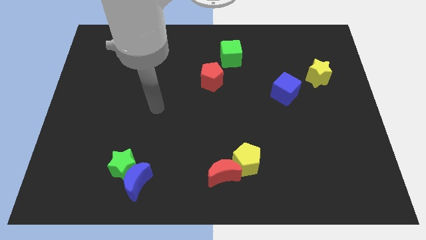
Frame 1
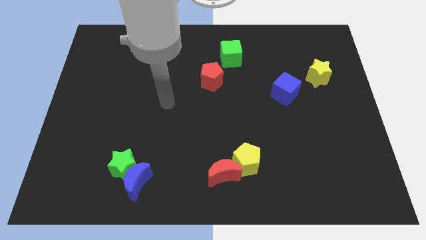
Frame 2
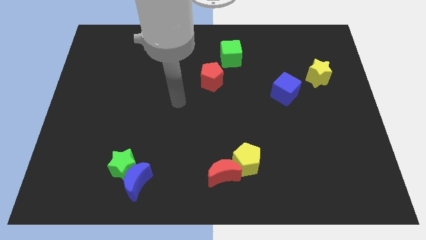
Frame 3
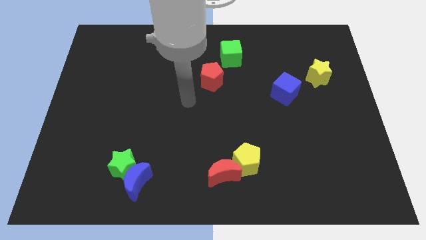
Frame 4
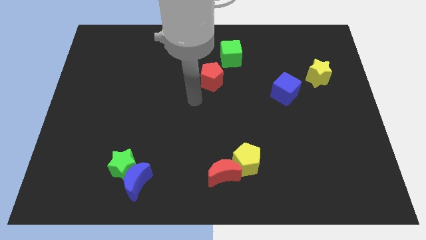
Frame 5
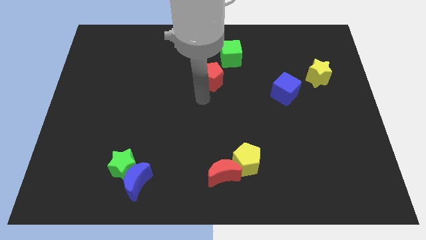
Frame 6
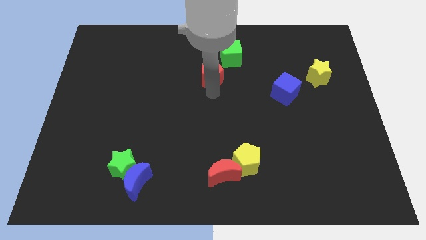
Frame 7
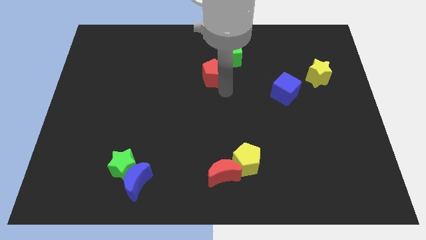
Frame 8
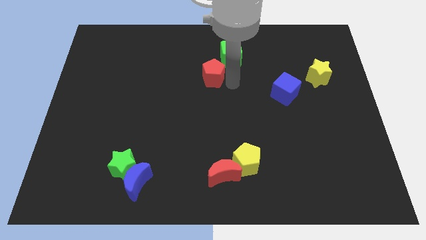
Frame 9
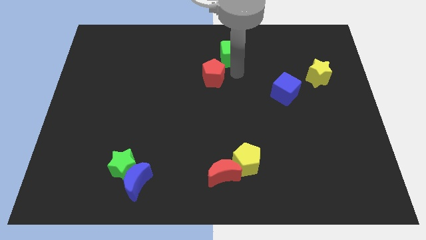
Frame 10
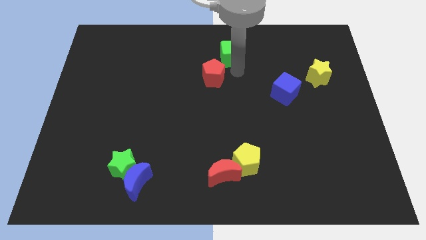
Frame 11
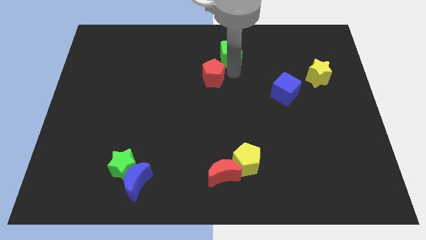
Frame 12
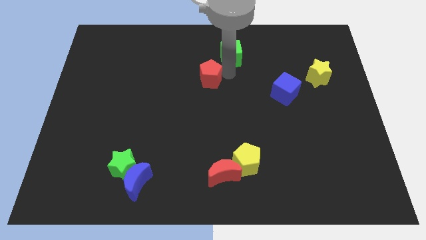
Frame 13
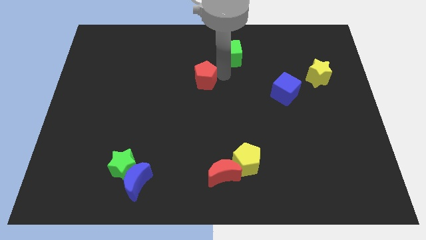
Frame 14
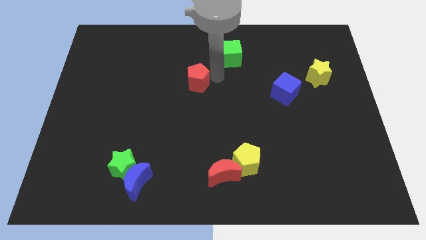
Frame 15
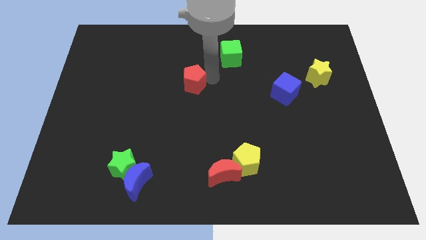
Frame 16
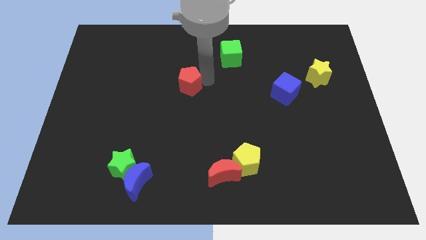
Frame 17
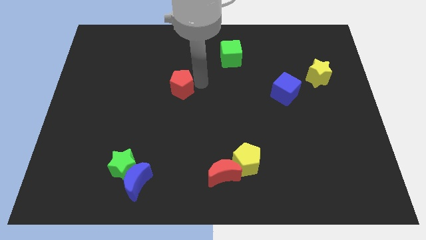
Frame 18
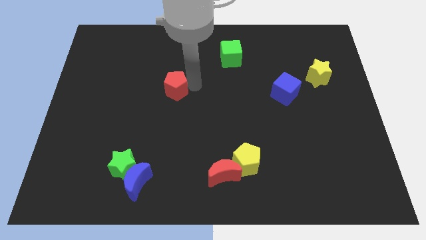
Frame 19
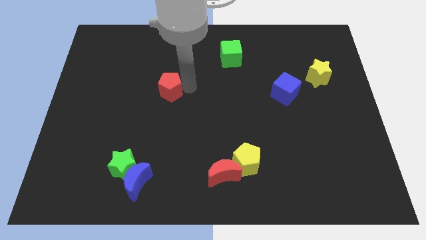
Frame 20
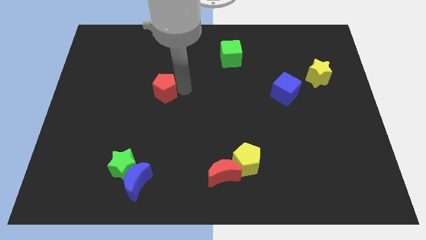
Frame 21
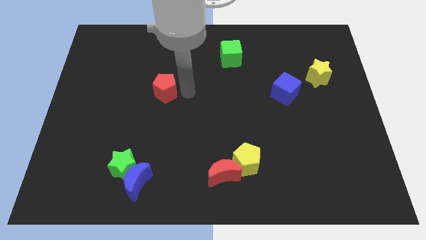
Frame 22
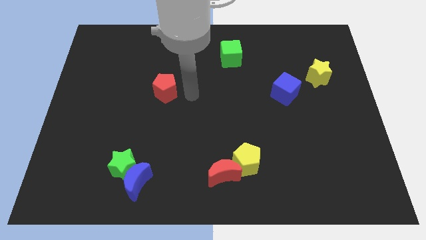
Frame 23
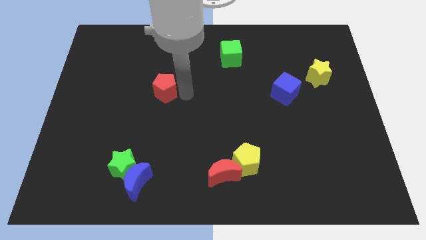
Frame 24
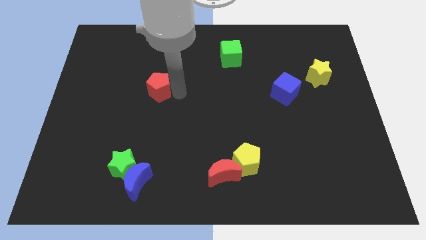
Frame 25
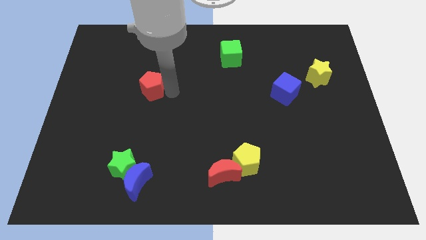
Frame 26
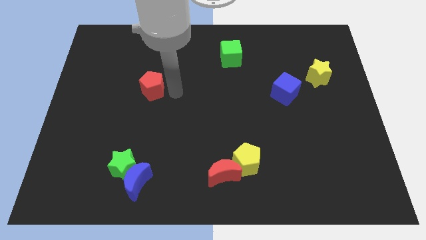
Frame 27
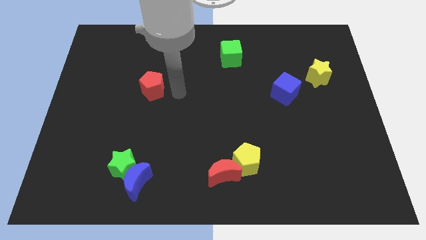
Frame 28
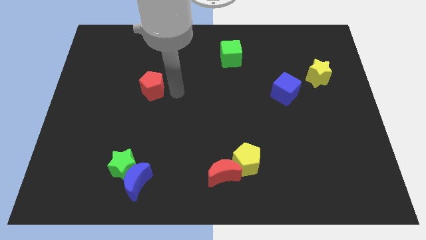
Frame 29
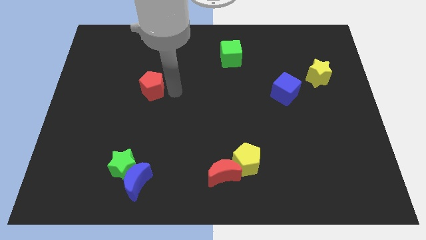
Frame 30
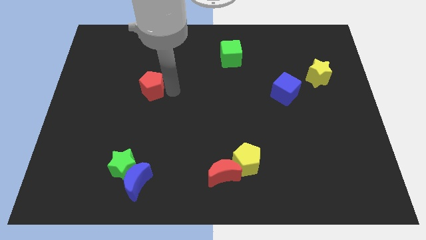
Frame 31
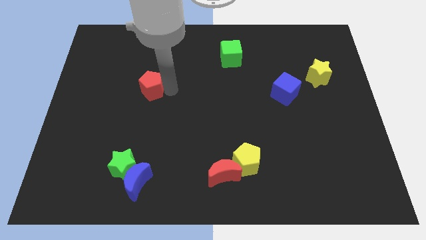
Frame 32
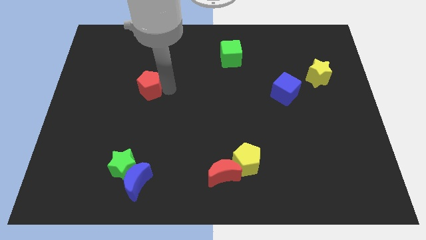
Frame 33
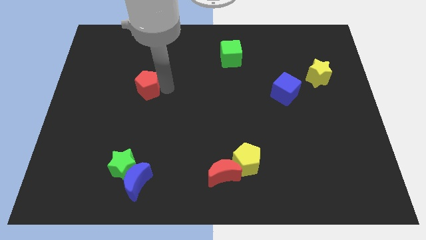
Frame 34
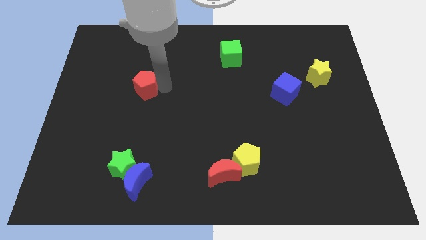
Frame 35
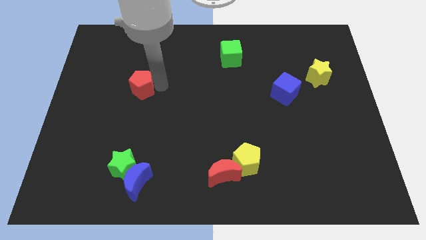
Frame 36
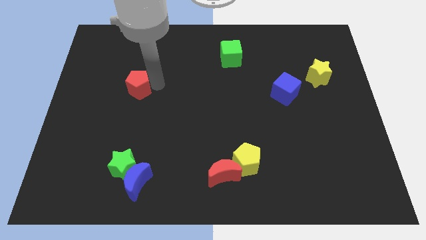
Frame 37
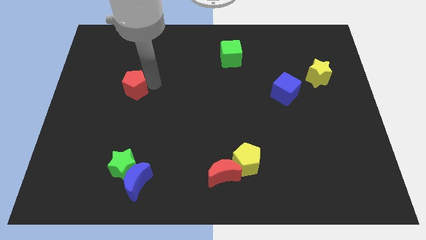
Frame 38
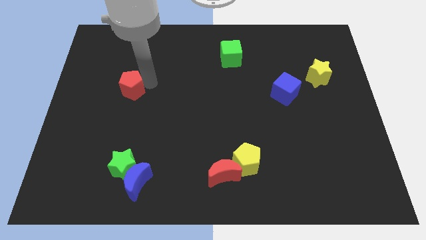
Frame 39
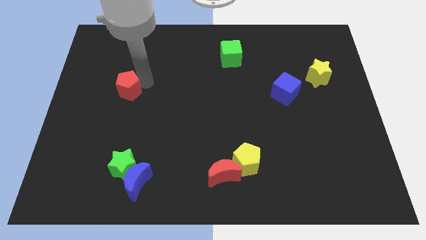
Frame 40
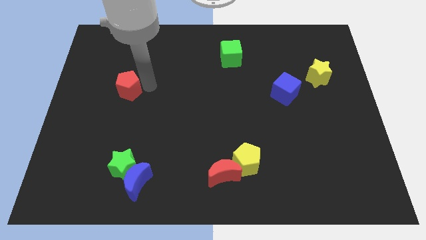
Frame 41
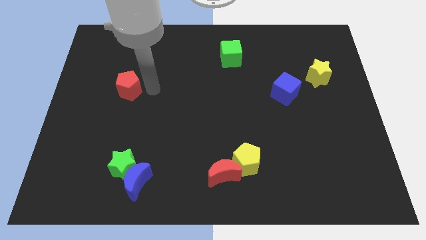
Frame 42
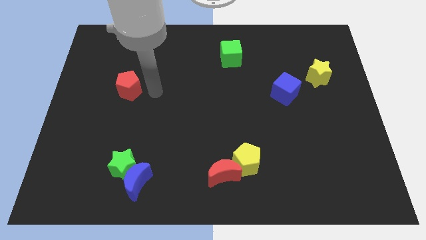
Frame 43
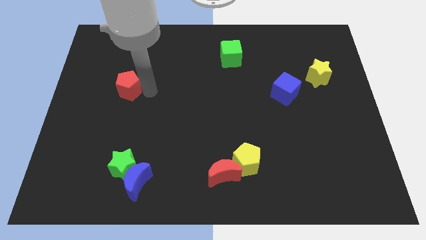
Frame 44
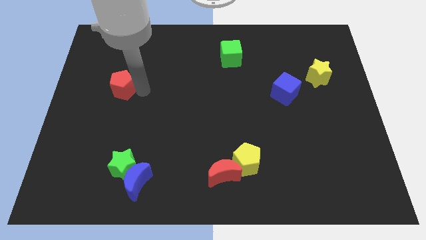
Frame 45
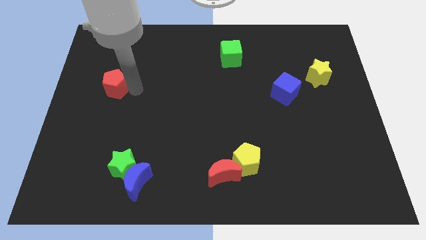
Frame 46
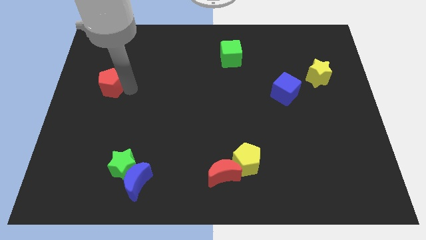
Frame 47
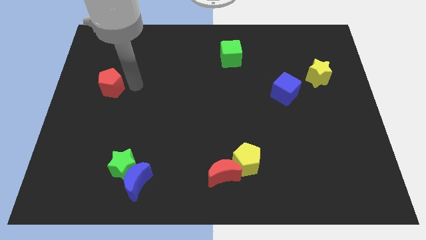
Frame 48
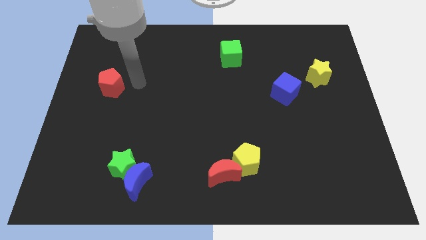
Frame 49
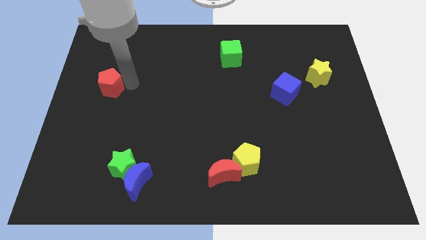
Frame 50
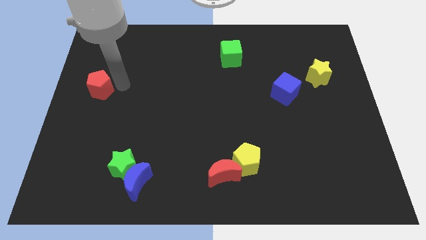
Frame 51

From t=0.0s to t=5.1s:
move the red pentagon to the left side

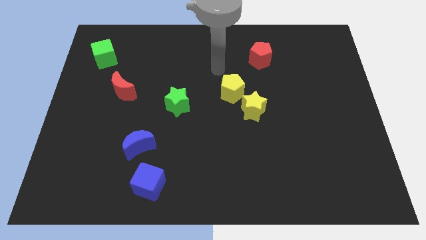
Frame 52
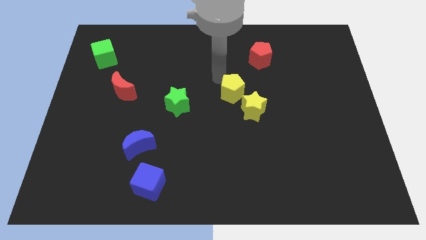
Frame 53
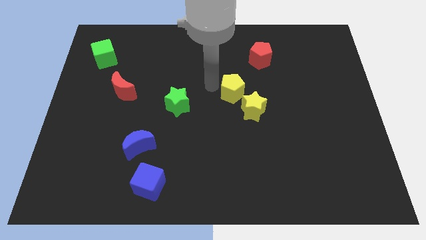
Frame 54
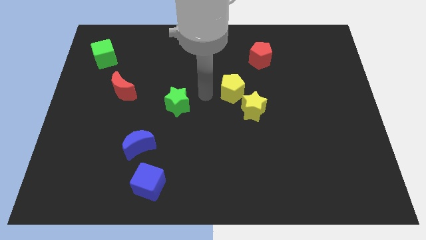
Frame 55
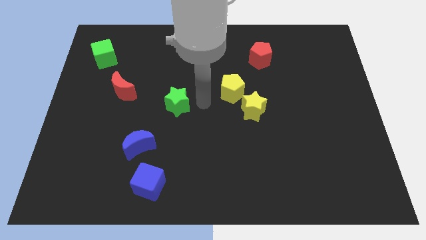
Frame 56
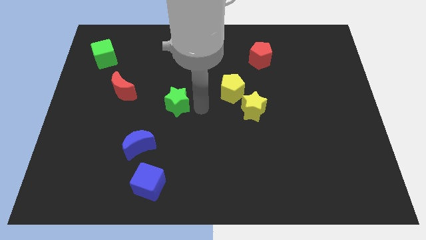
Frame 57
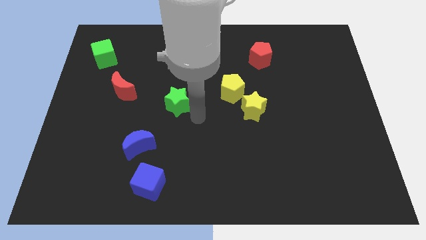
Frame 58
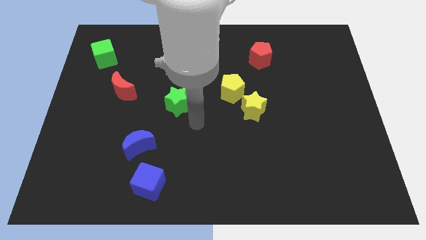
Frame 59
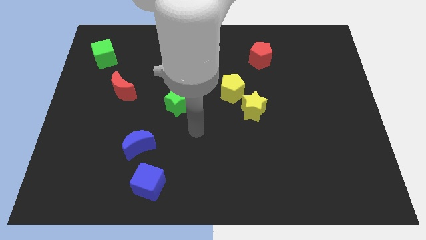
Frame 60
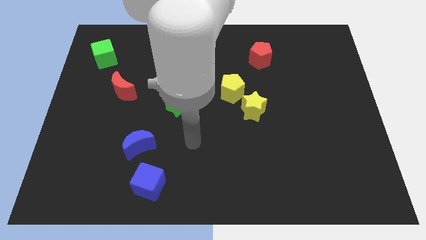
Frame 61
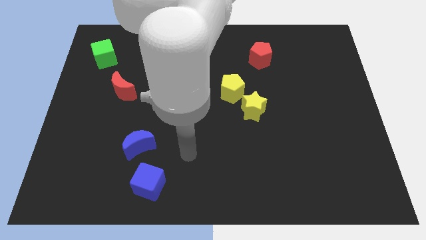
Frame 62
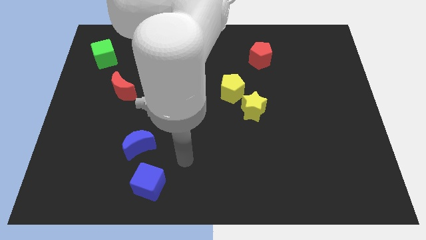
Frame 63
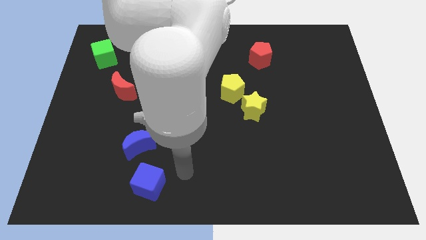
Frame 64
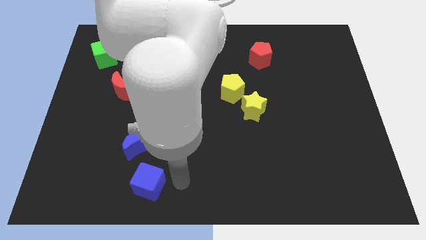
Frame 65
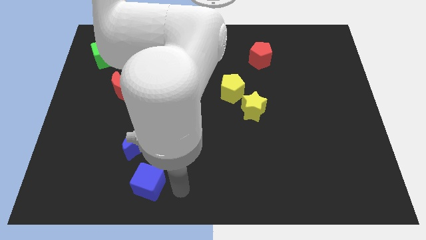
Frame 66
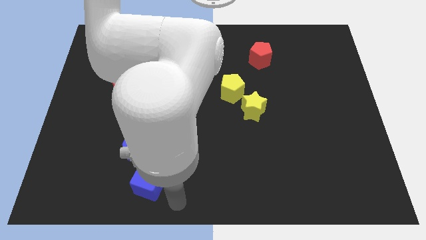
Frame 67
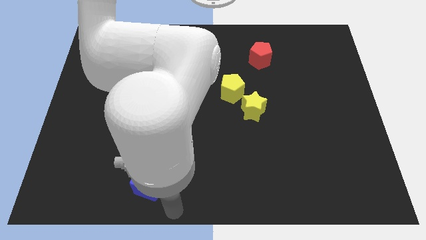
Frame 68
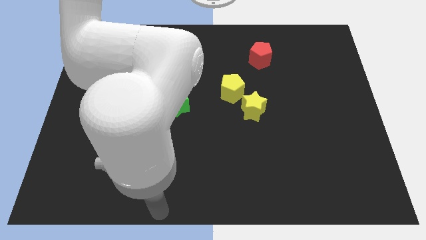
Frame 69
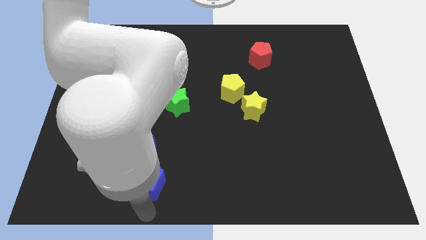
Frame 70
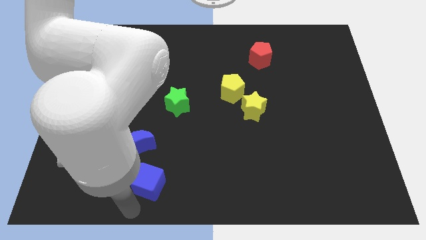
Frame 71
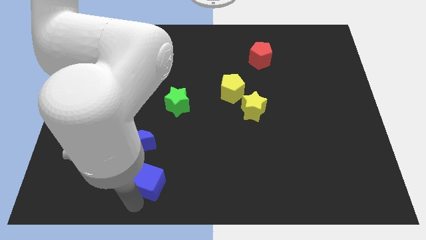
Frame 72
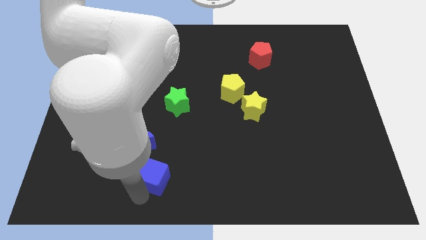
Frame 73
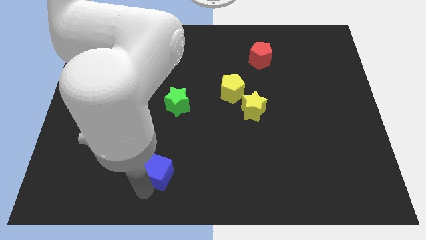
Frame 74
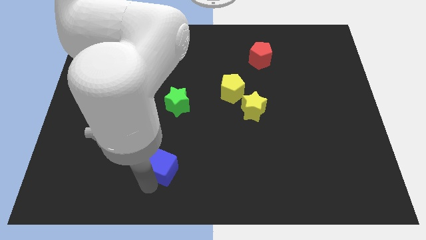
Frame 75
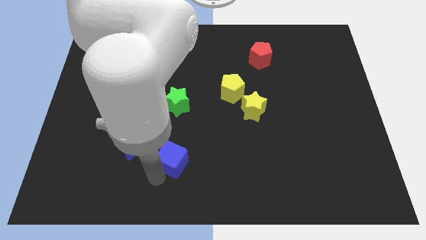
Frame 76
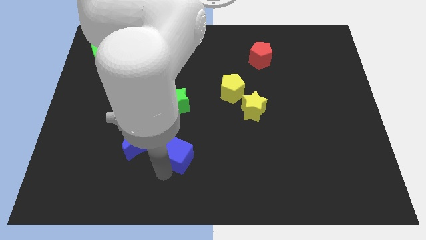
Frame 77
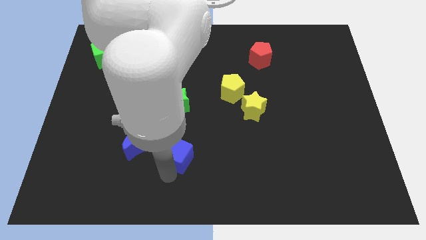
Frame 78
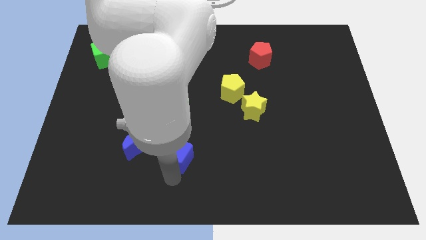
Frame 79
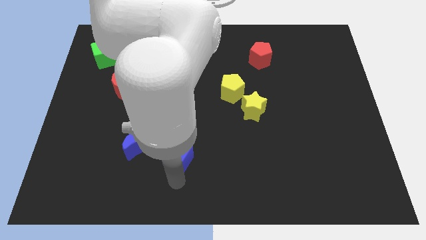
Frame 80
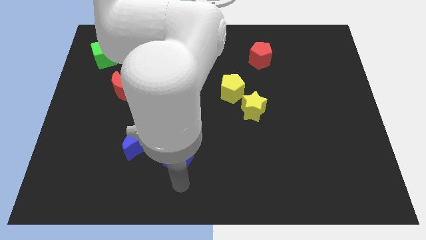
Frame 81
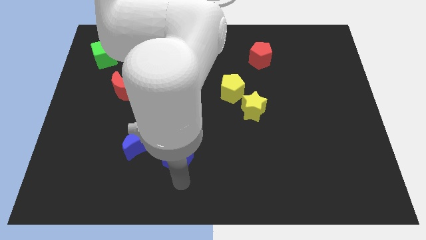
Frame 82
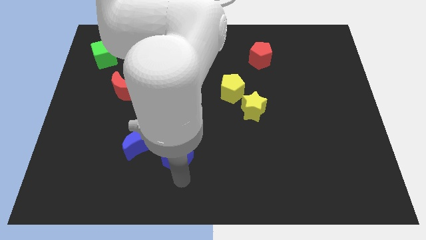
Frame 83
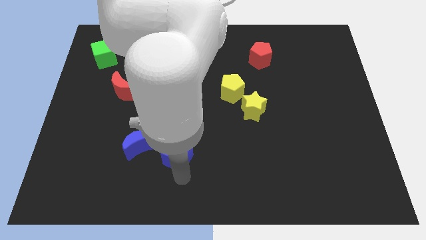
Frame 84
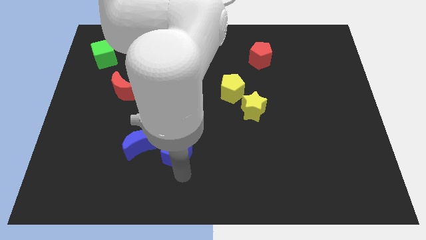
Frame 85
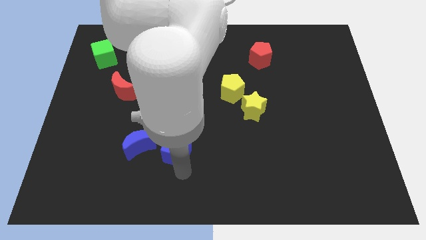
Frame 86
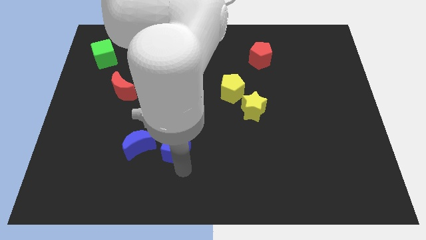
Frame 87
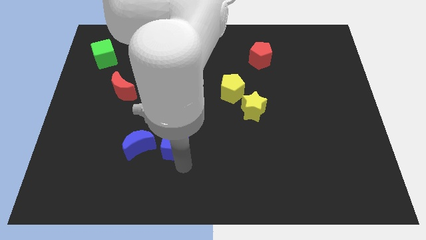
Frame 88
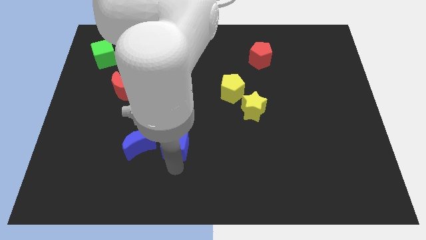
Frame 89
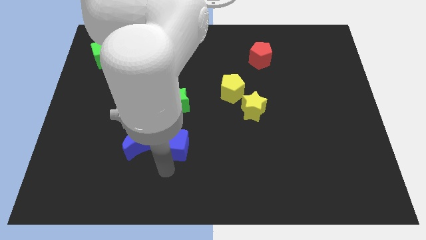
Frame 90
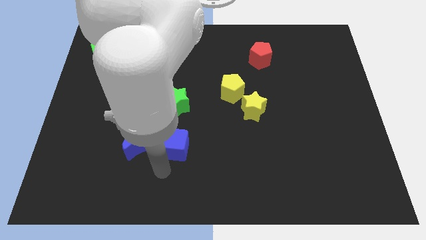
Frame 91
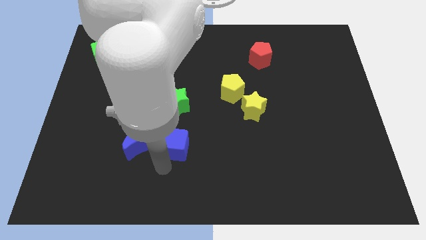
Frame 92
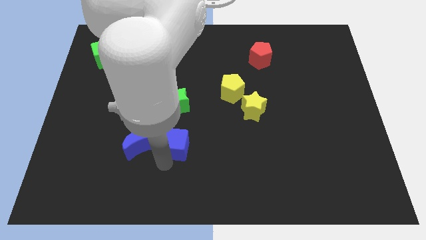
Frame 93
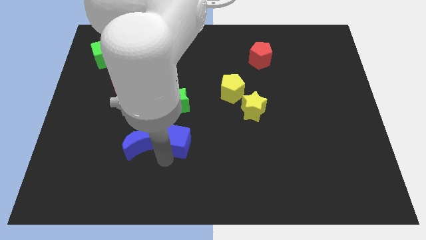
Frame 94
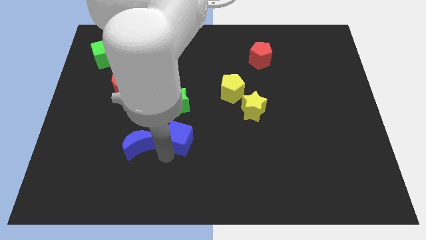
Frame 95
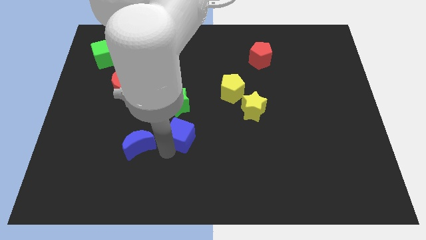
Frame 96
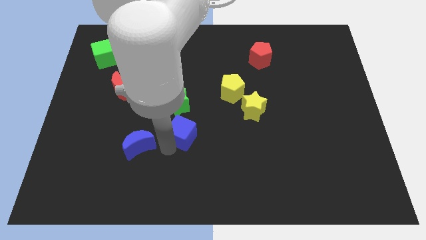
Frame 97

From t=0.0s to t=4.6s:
move the blue cube to the middle of the board
